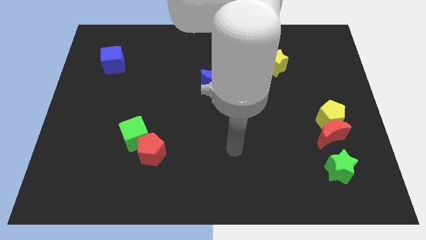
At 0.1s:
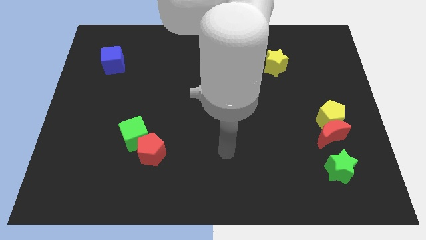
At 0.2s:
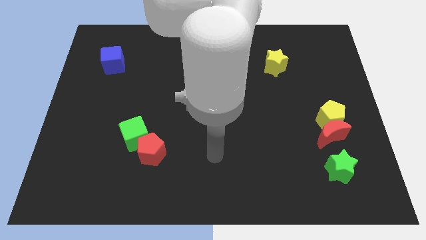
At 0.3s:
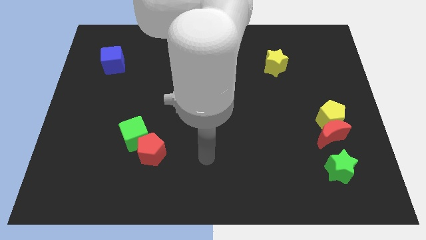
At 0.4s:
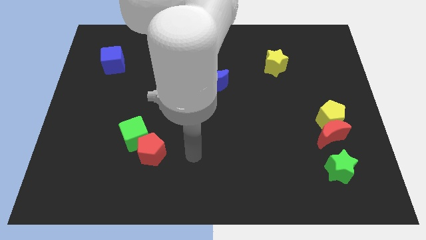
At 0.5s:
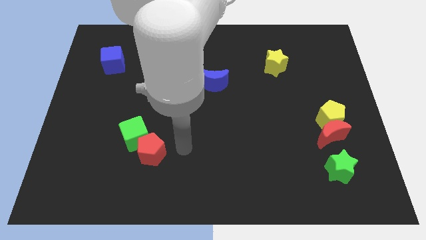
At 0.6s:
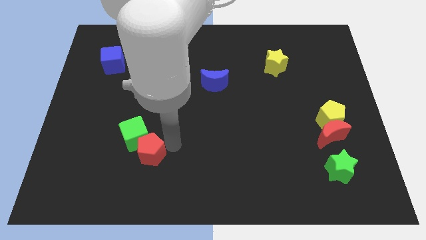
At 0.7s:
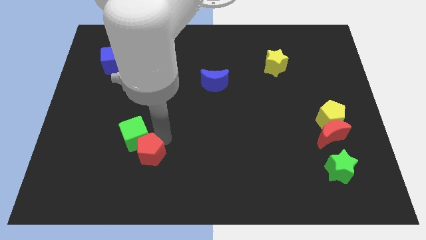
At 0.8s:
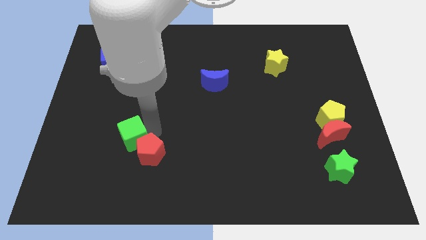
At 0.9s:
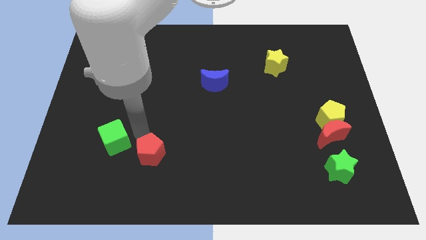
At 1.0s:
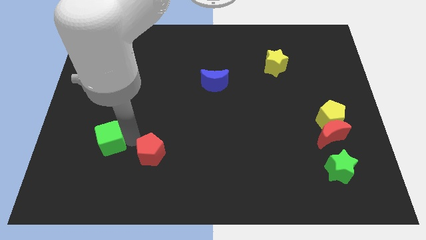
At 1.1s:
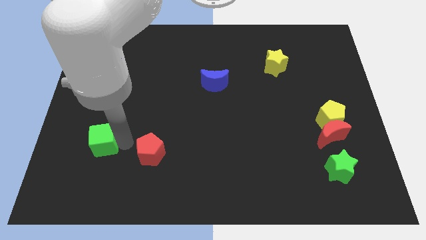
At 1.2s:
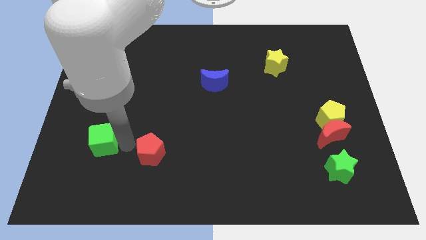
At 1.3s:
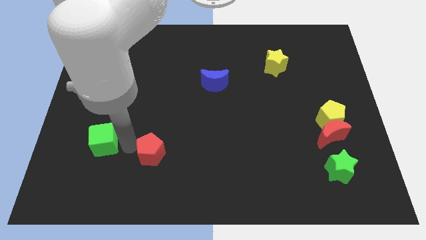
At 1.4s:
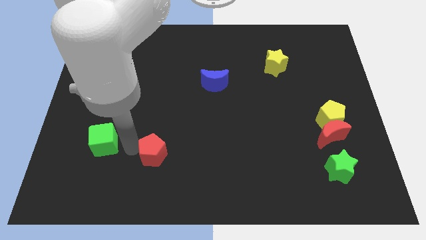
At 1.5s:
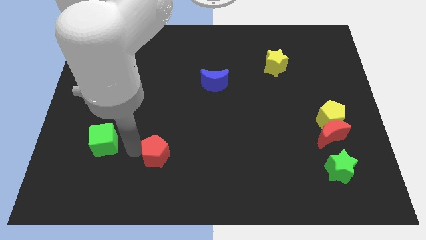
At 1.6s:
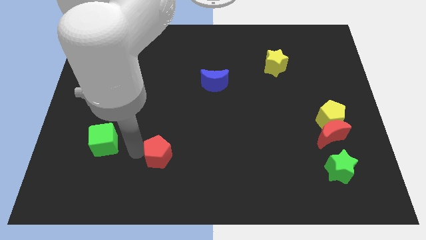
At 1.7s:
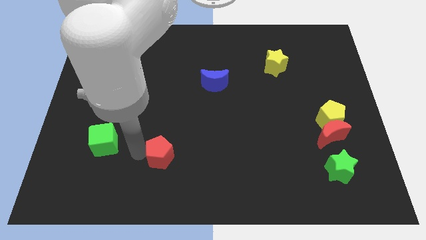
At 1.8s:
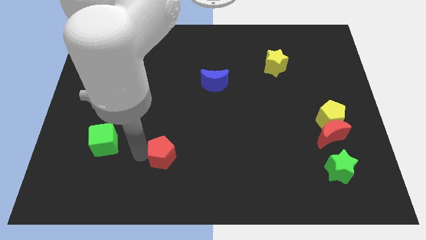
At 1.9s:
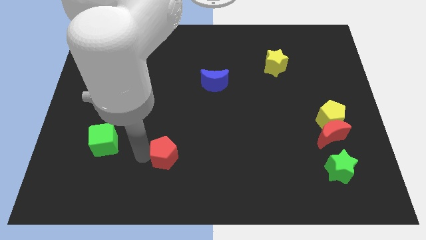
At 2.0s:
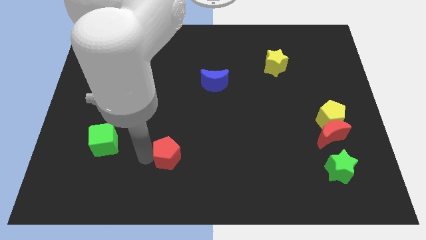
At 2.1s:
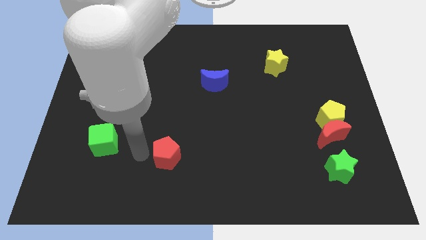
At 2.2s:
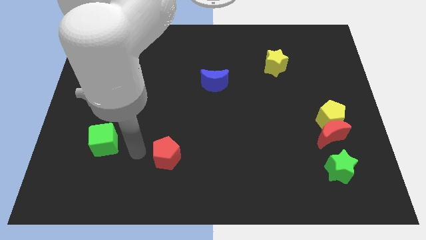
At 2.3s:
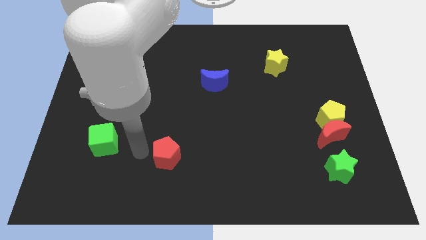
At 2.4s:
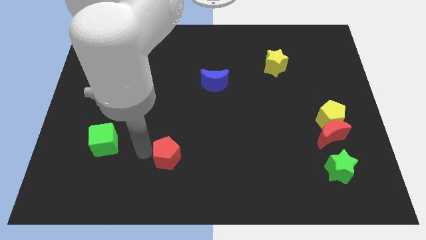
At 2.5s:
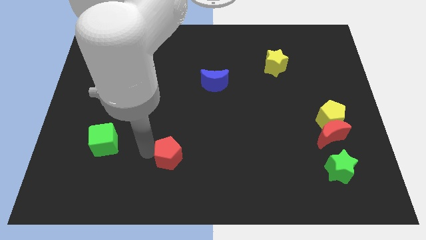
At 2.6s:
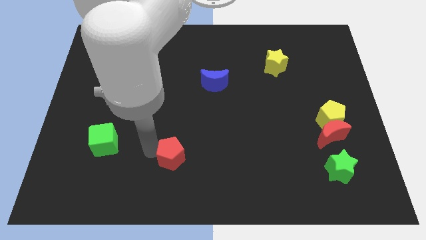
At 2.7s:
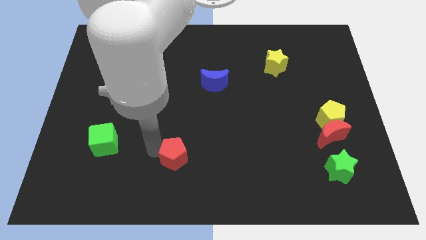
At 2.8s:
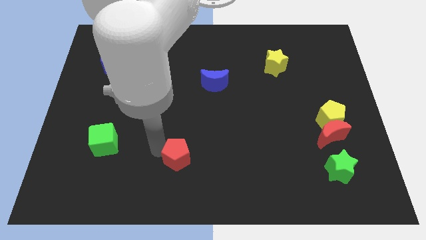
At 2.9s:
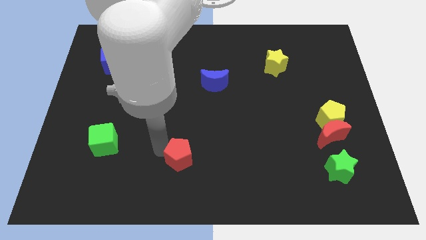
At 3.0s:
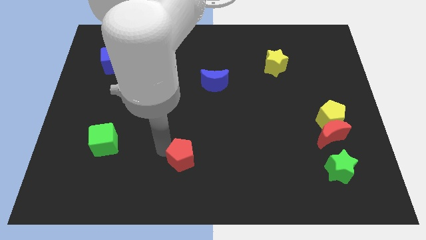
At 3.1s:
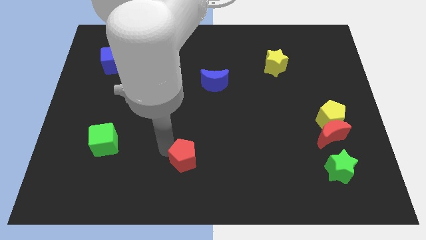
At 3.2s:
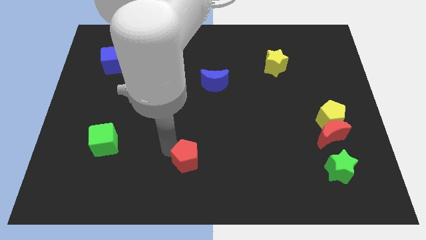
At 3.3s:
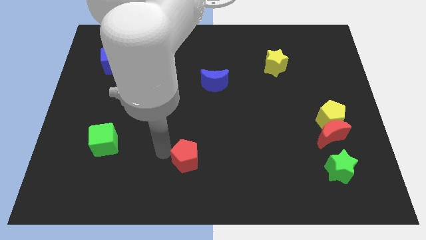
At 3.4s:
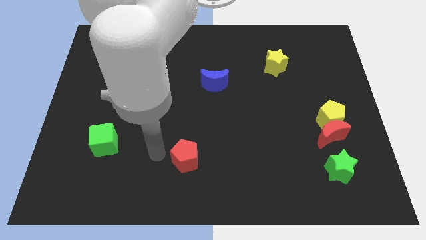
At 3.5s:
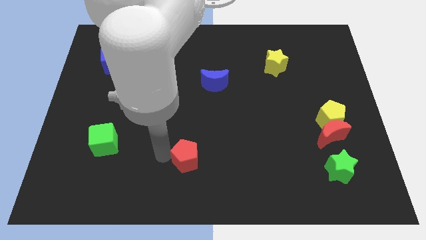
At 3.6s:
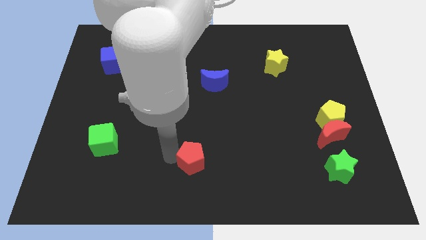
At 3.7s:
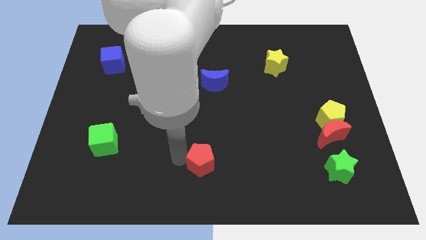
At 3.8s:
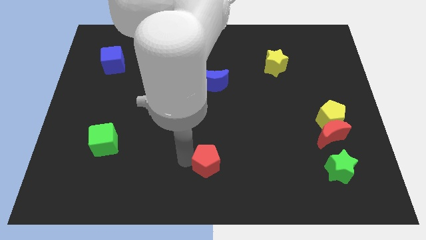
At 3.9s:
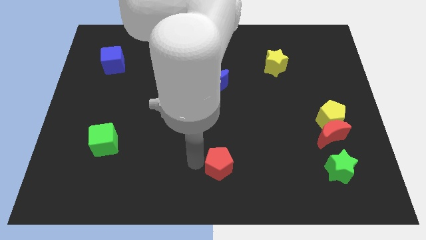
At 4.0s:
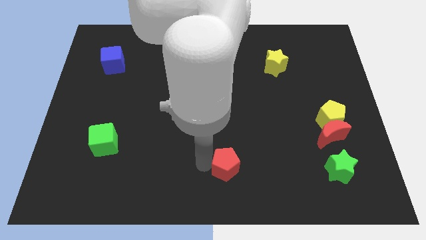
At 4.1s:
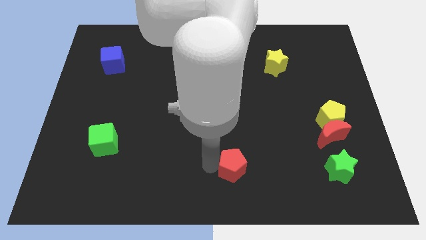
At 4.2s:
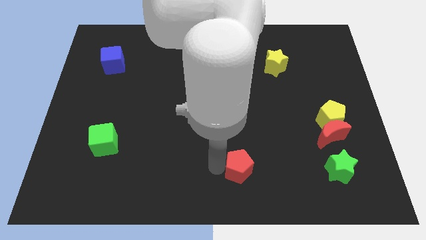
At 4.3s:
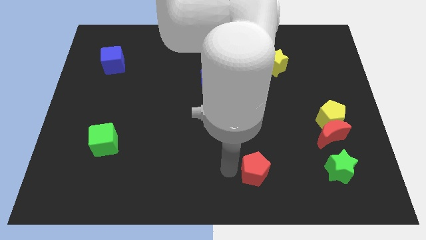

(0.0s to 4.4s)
push the red pentagon right

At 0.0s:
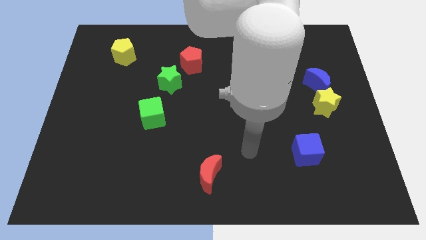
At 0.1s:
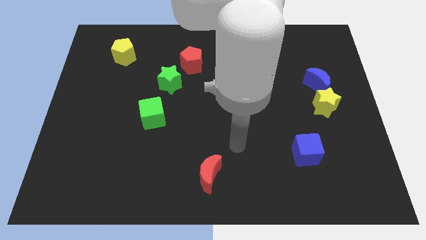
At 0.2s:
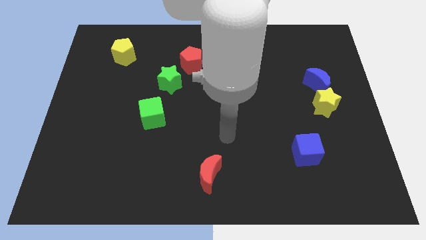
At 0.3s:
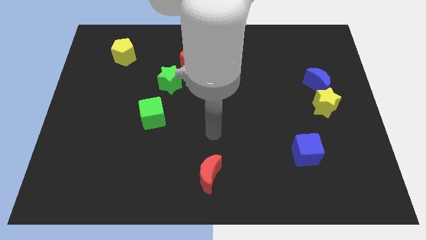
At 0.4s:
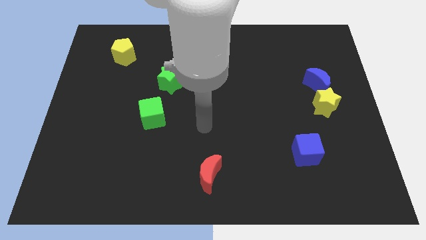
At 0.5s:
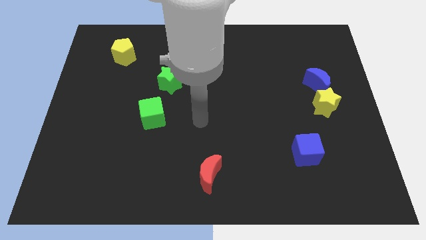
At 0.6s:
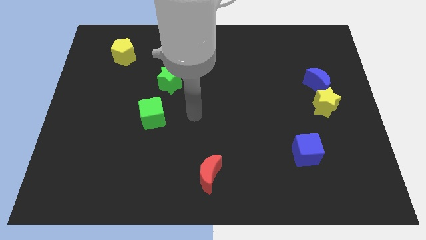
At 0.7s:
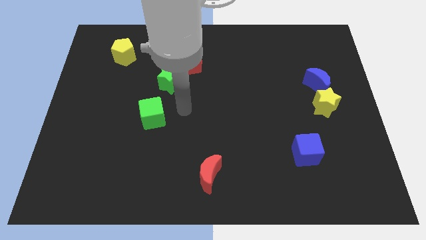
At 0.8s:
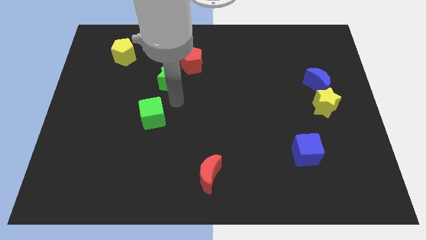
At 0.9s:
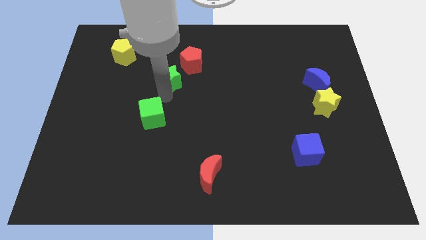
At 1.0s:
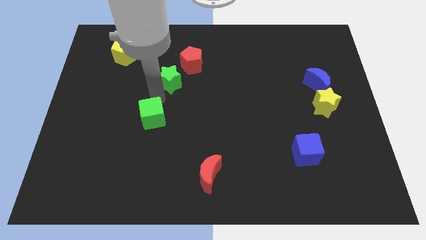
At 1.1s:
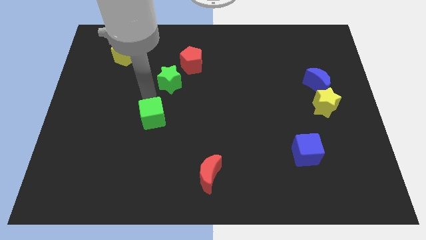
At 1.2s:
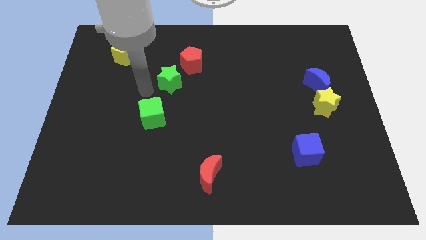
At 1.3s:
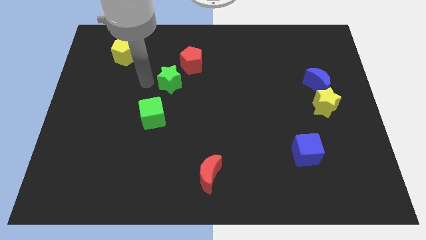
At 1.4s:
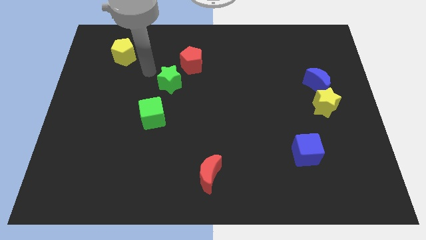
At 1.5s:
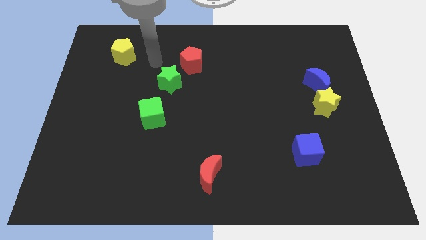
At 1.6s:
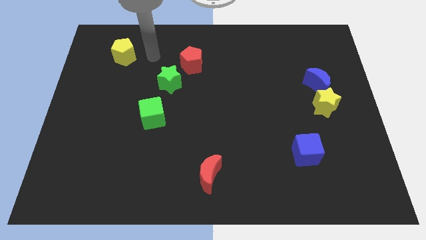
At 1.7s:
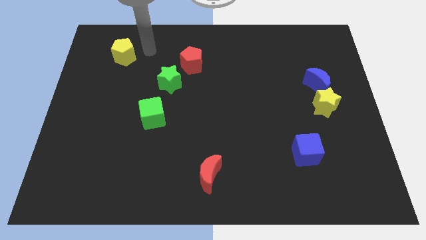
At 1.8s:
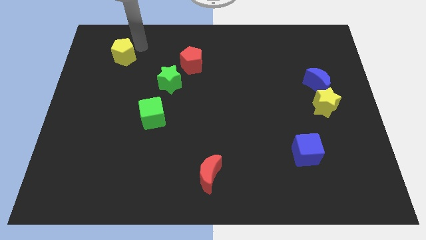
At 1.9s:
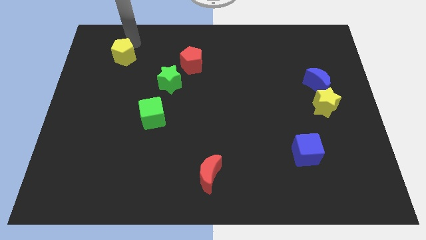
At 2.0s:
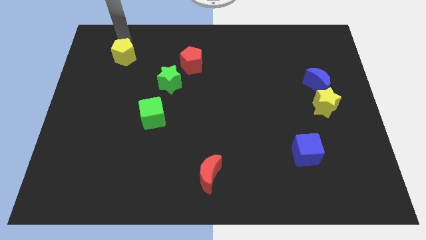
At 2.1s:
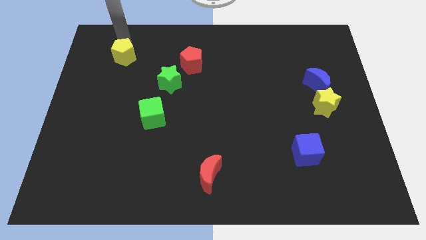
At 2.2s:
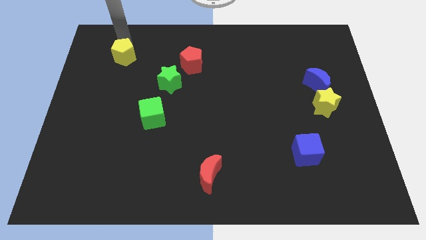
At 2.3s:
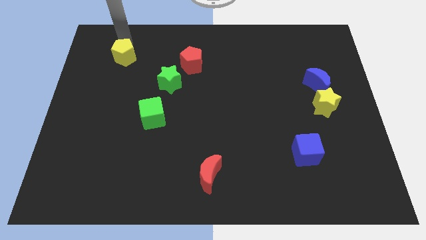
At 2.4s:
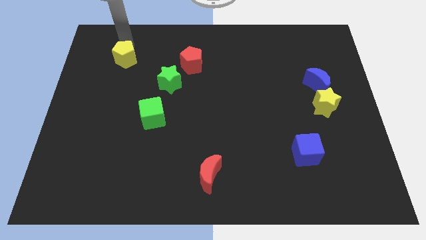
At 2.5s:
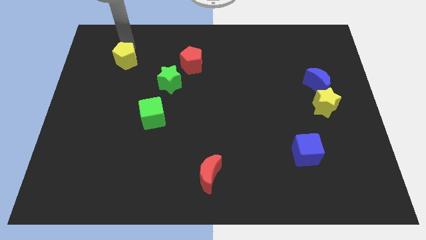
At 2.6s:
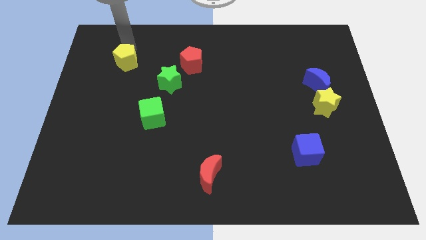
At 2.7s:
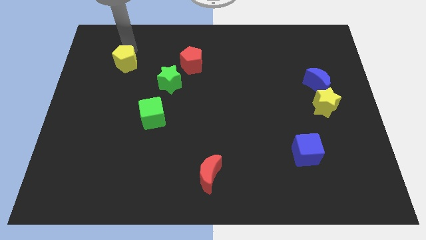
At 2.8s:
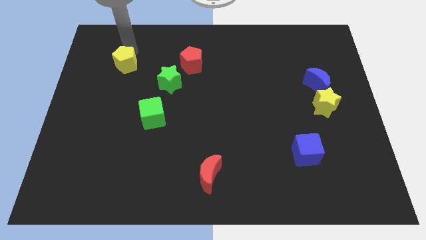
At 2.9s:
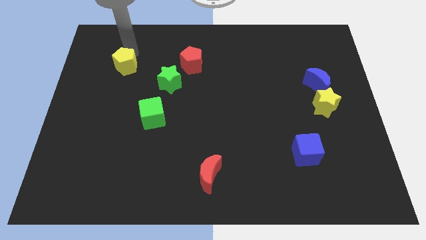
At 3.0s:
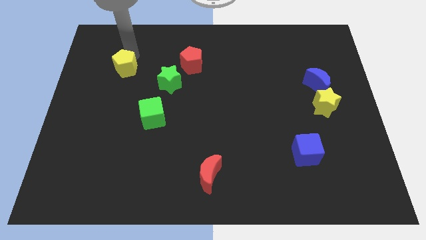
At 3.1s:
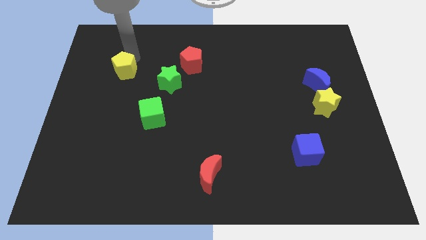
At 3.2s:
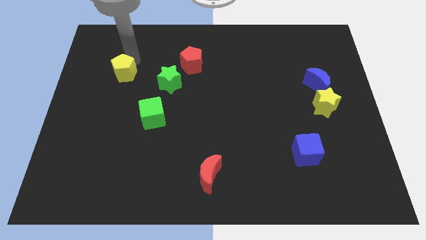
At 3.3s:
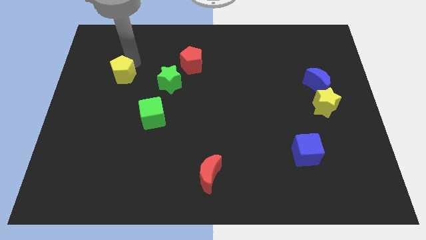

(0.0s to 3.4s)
move the yellow pentagon a little downwards
